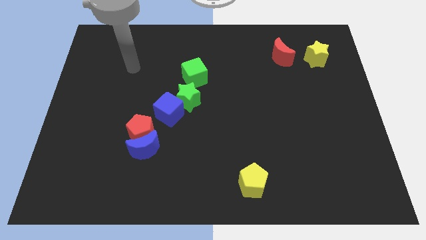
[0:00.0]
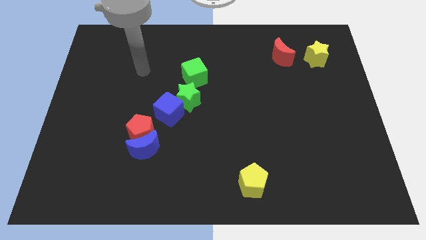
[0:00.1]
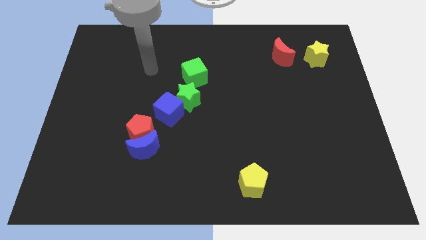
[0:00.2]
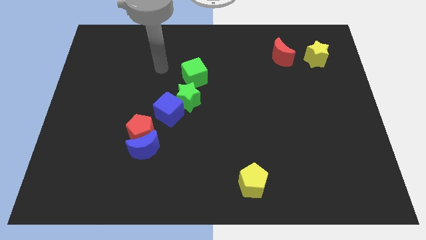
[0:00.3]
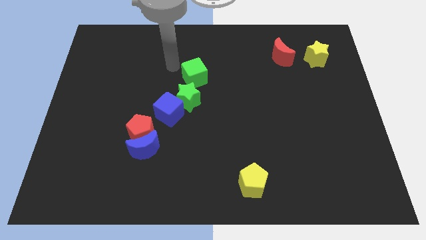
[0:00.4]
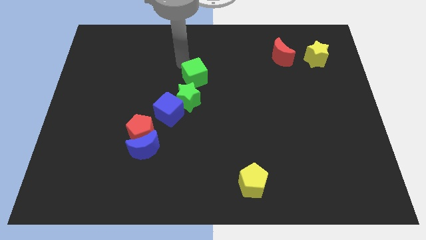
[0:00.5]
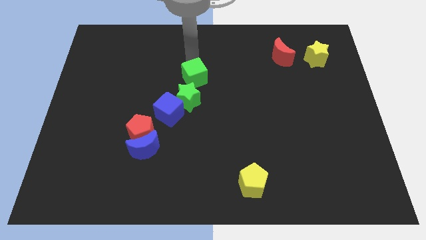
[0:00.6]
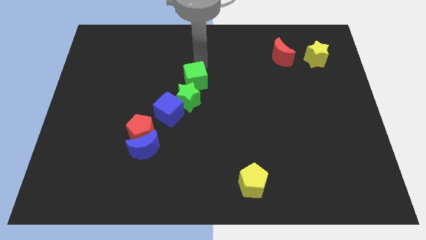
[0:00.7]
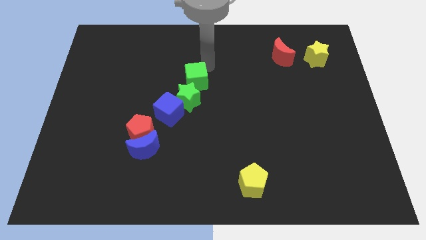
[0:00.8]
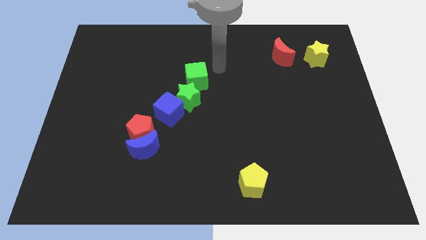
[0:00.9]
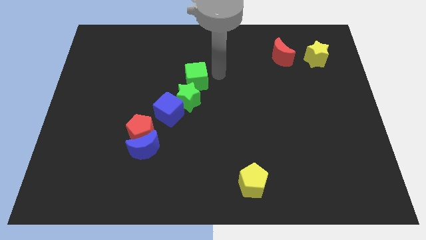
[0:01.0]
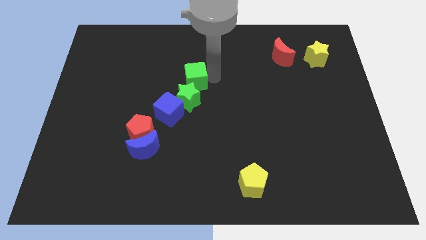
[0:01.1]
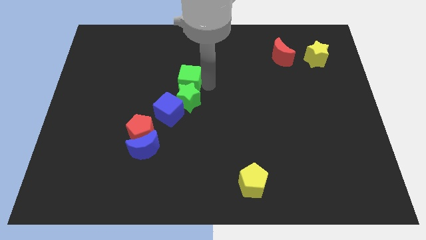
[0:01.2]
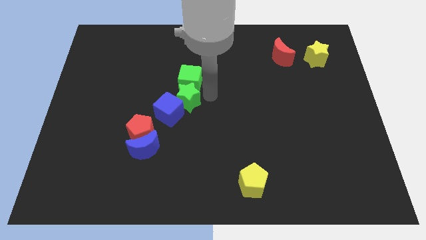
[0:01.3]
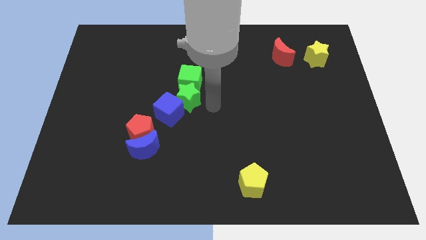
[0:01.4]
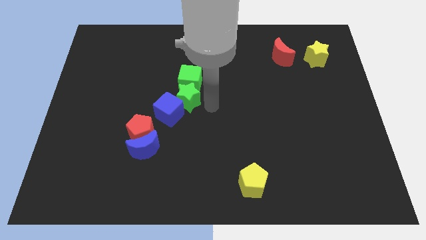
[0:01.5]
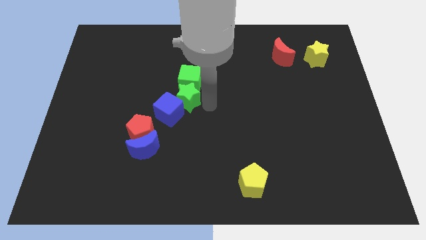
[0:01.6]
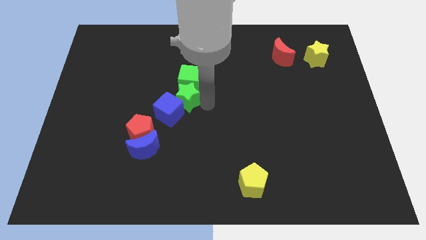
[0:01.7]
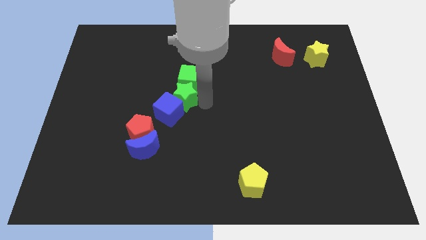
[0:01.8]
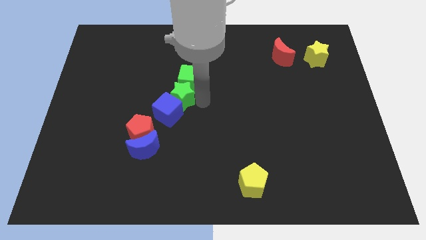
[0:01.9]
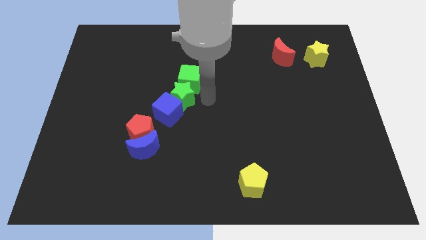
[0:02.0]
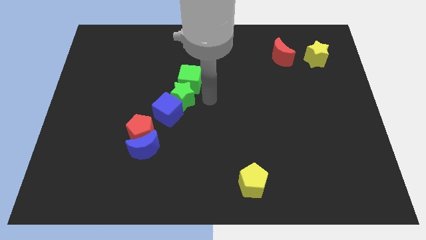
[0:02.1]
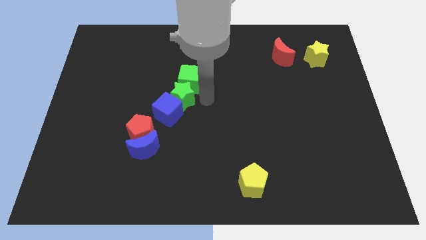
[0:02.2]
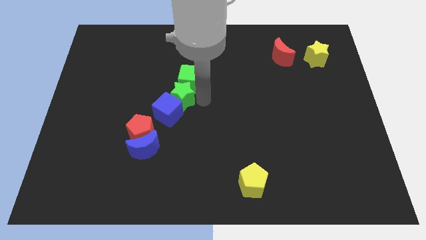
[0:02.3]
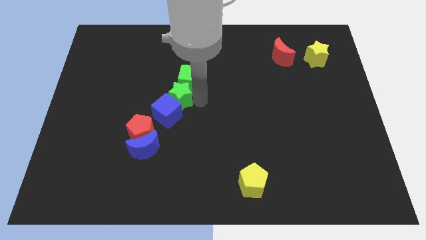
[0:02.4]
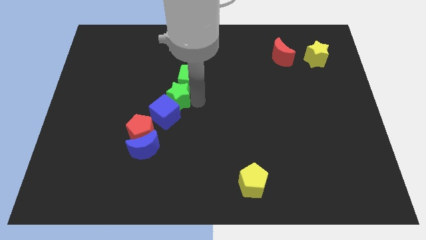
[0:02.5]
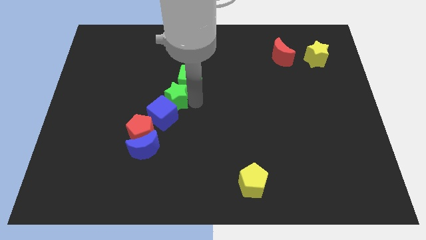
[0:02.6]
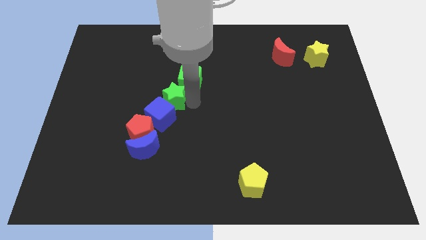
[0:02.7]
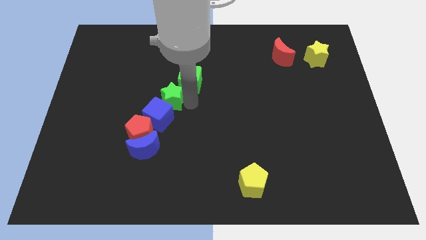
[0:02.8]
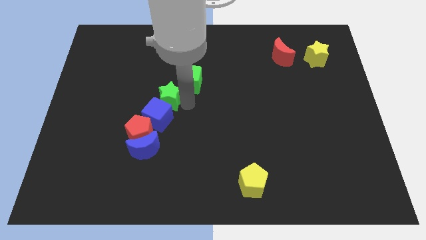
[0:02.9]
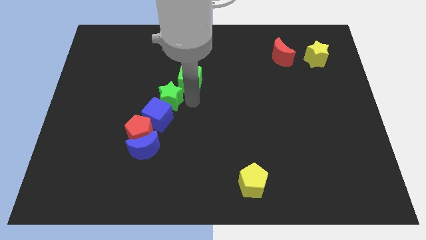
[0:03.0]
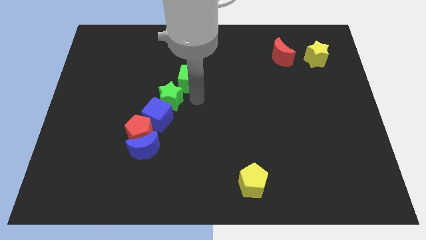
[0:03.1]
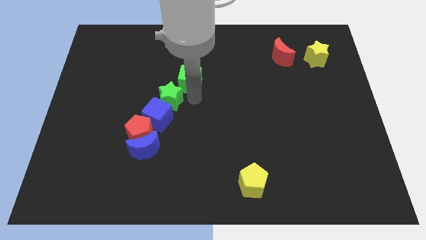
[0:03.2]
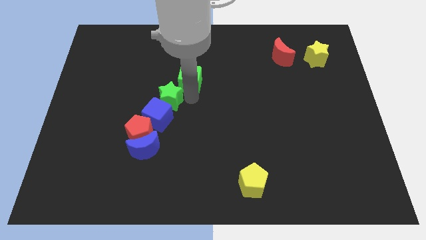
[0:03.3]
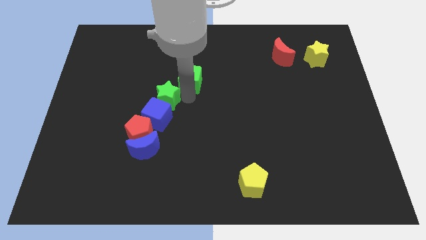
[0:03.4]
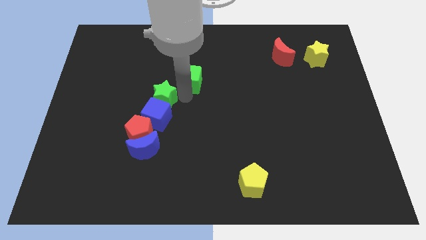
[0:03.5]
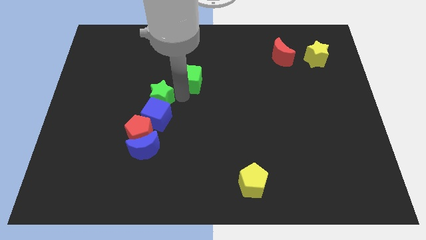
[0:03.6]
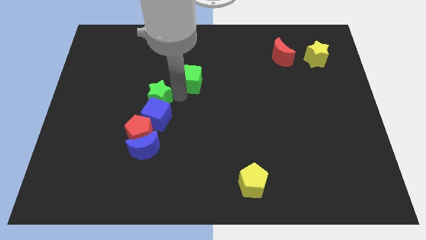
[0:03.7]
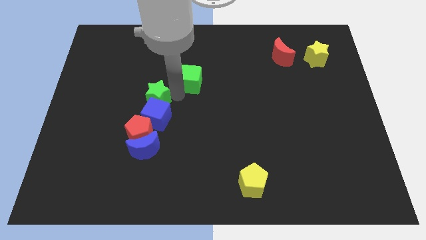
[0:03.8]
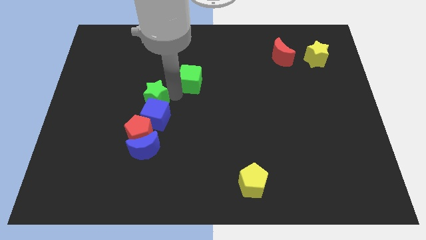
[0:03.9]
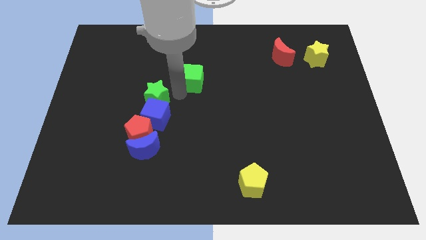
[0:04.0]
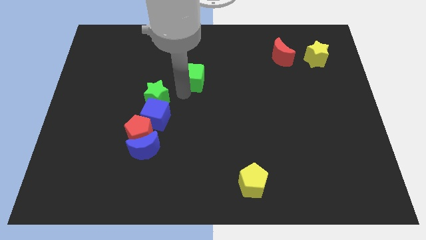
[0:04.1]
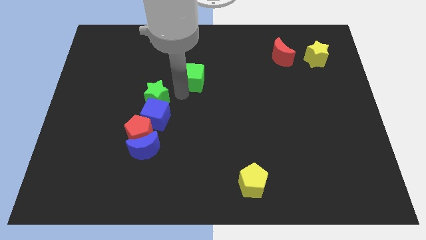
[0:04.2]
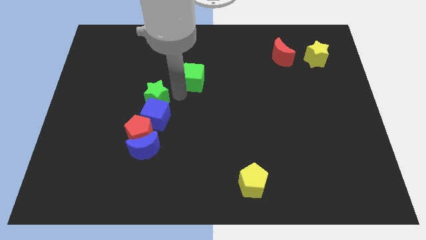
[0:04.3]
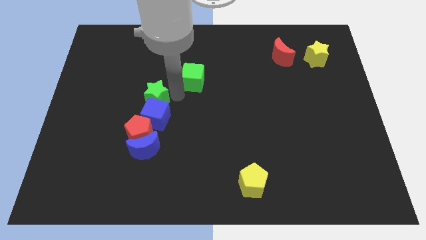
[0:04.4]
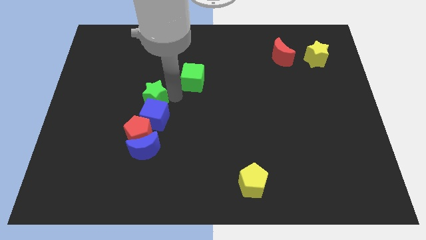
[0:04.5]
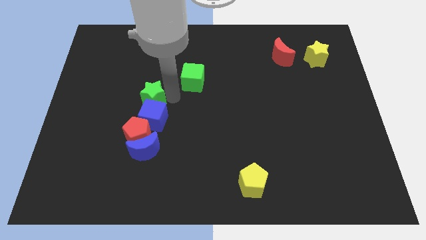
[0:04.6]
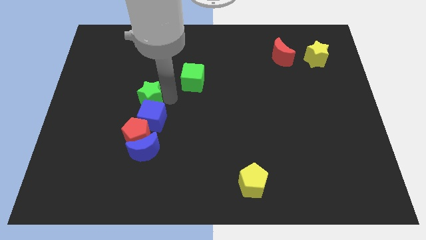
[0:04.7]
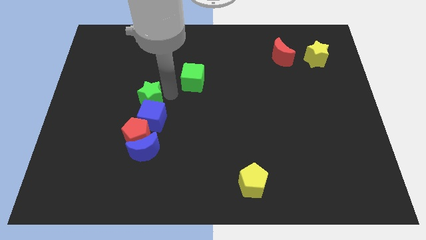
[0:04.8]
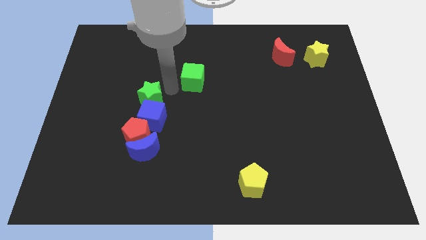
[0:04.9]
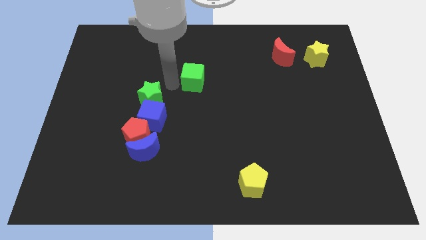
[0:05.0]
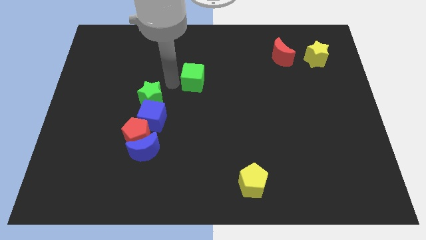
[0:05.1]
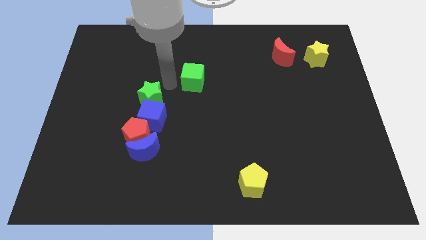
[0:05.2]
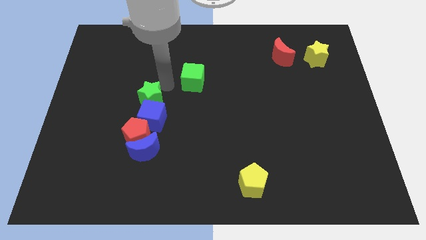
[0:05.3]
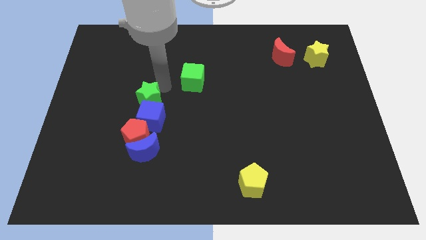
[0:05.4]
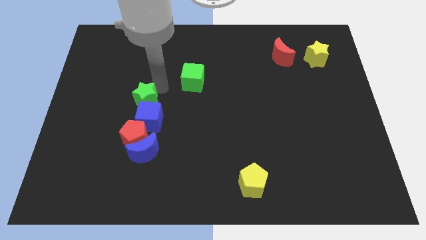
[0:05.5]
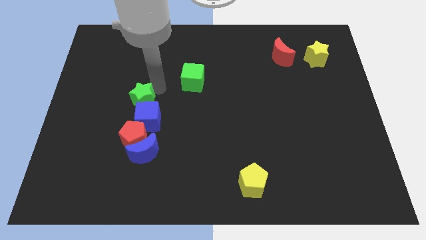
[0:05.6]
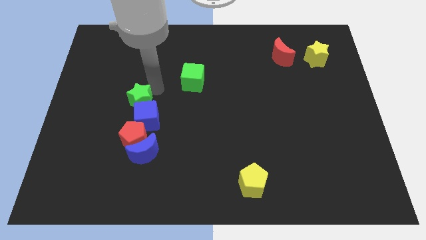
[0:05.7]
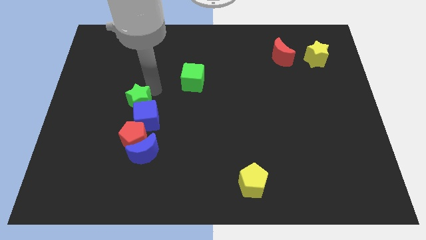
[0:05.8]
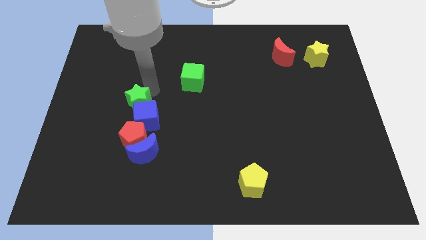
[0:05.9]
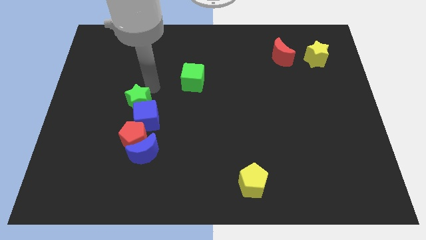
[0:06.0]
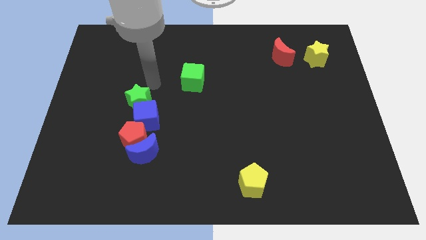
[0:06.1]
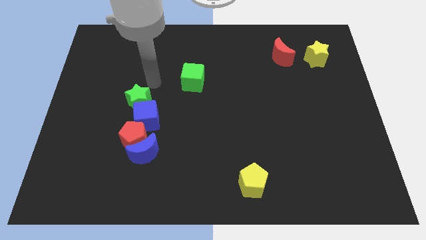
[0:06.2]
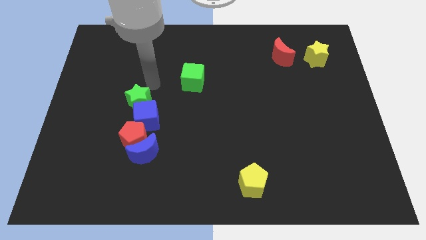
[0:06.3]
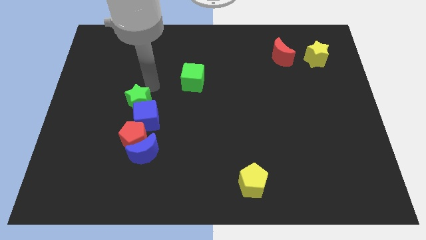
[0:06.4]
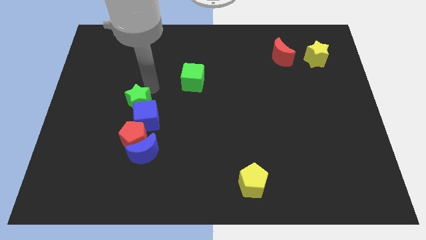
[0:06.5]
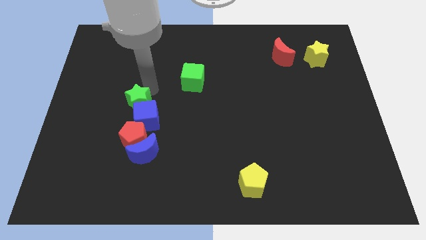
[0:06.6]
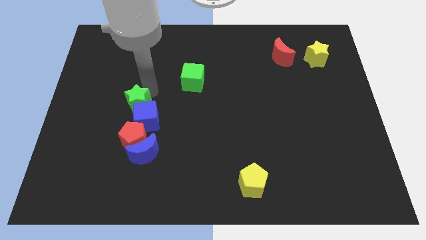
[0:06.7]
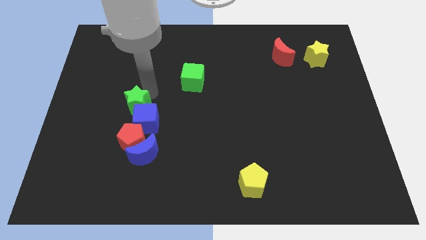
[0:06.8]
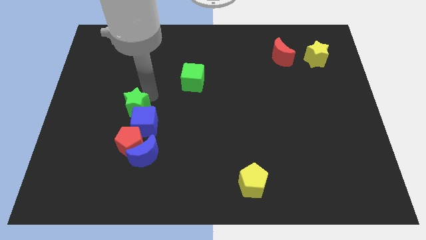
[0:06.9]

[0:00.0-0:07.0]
move the green star a little bit down and to the left diagonally

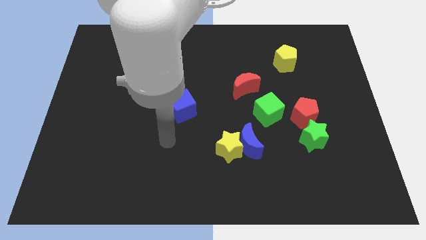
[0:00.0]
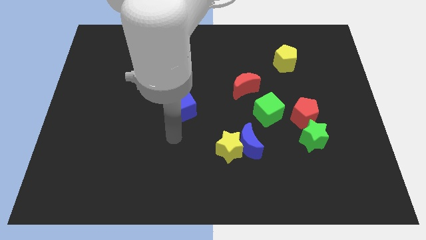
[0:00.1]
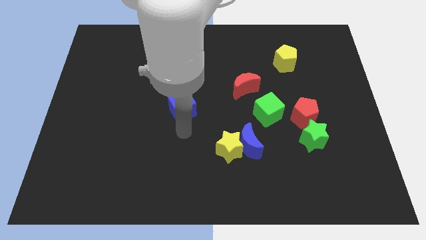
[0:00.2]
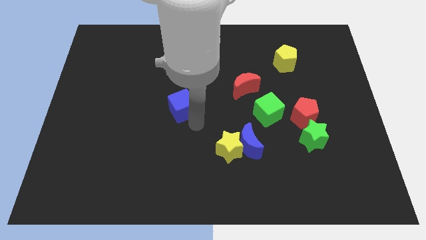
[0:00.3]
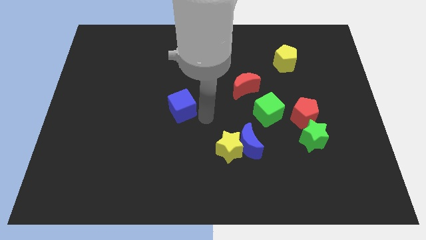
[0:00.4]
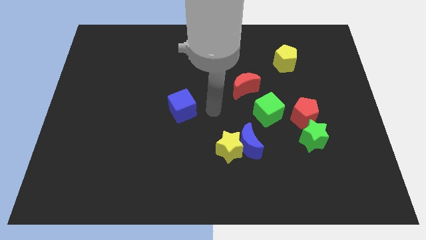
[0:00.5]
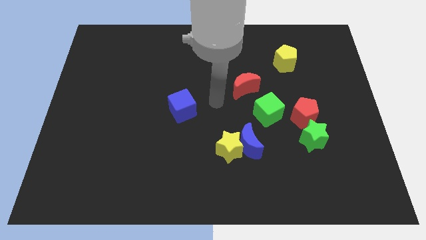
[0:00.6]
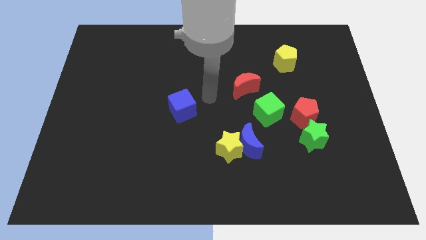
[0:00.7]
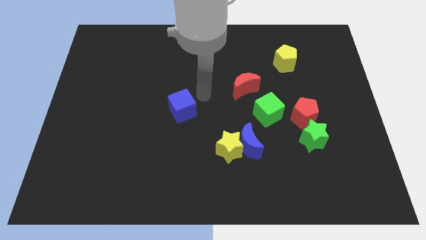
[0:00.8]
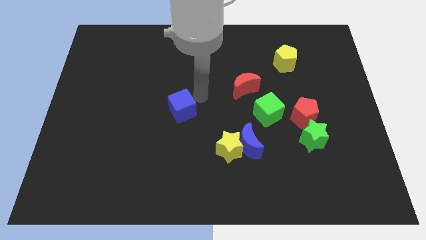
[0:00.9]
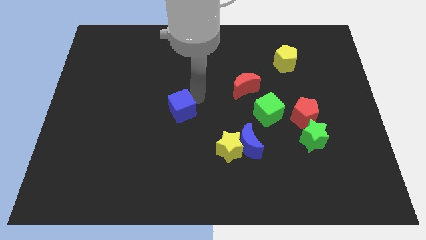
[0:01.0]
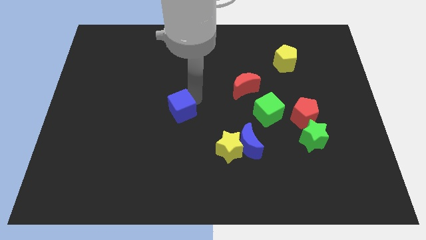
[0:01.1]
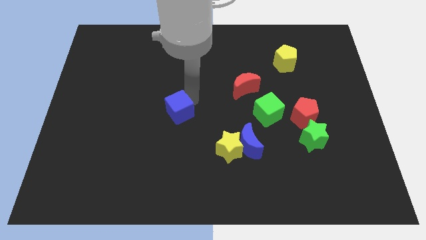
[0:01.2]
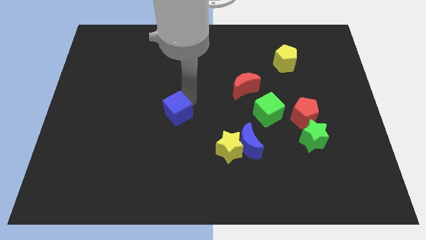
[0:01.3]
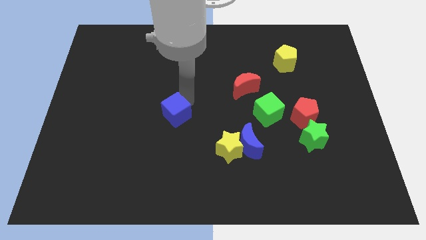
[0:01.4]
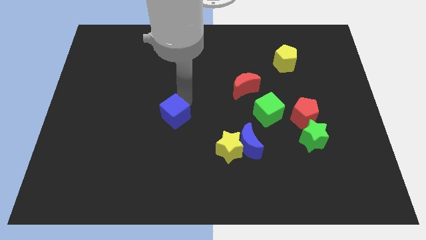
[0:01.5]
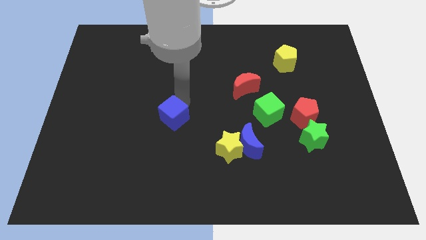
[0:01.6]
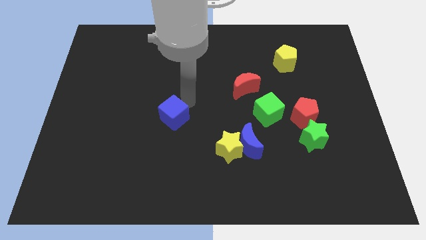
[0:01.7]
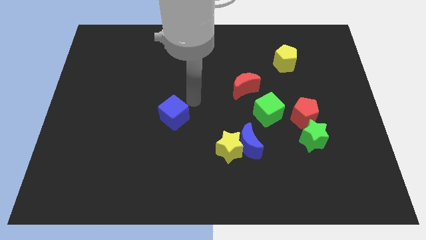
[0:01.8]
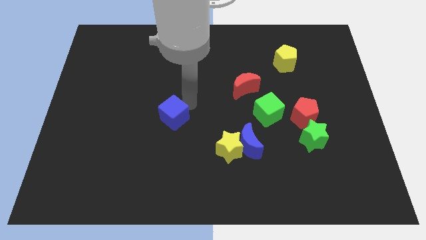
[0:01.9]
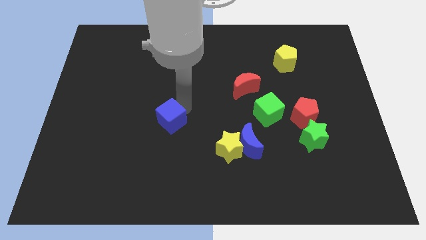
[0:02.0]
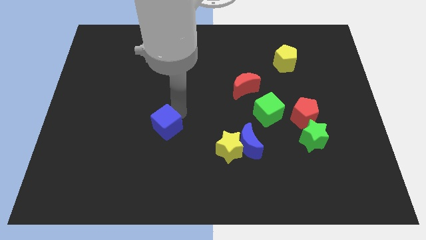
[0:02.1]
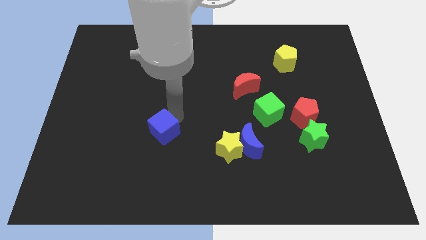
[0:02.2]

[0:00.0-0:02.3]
move the blue cube slightly down and to the left
